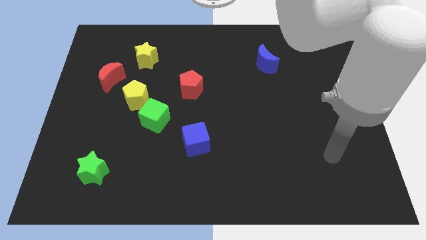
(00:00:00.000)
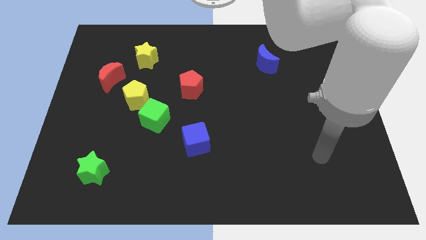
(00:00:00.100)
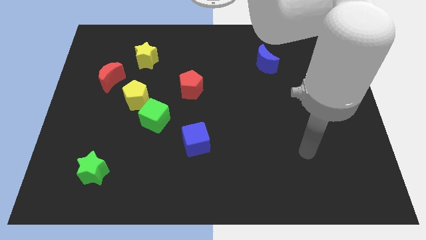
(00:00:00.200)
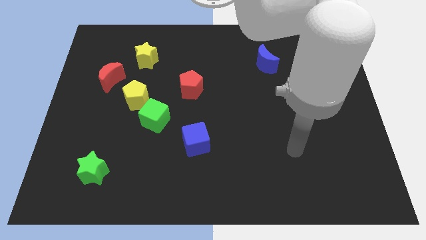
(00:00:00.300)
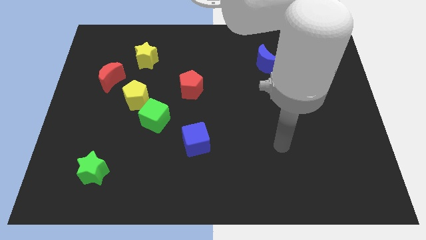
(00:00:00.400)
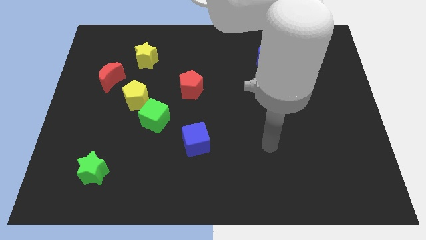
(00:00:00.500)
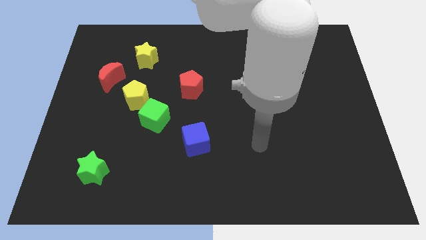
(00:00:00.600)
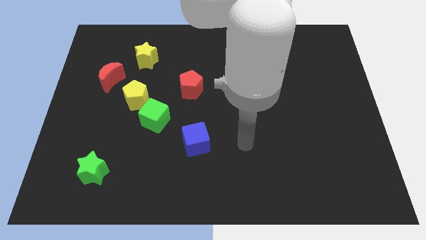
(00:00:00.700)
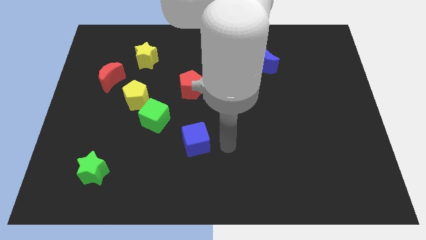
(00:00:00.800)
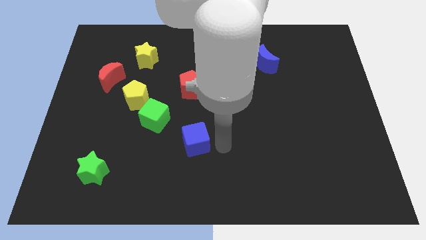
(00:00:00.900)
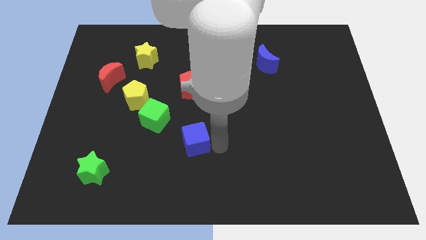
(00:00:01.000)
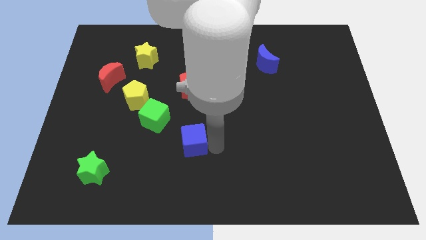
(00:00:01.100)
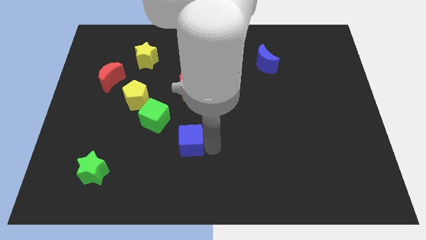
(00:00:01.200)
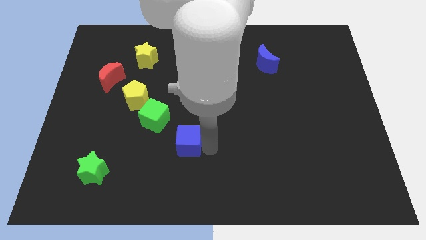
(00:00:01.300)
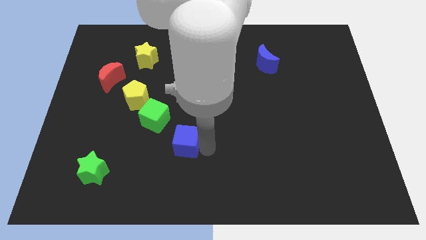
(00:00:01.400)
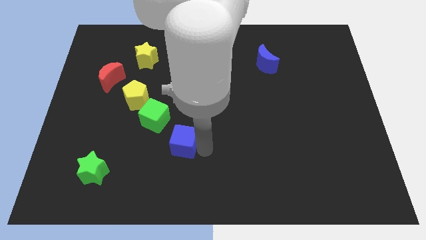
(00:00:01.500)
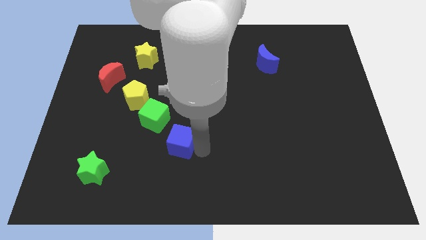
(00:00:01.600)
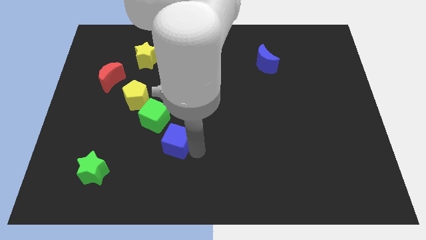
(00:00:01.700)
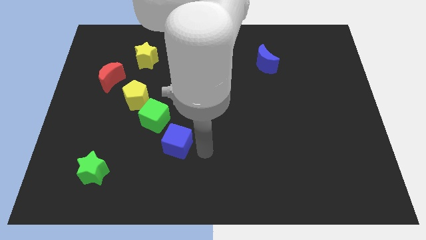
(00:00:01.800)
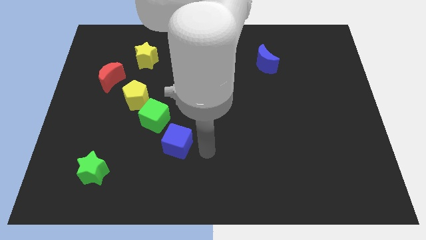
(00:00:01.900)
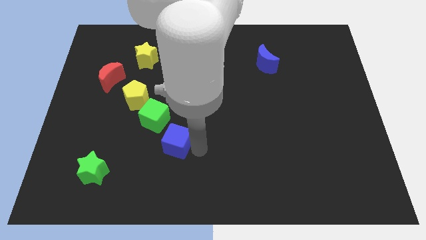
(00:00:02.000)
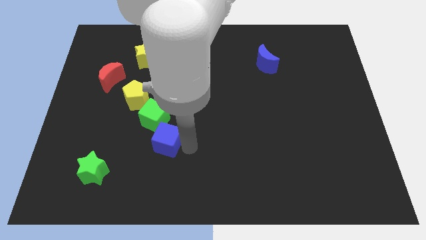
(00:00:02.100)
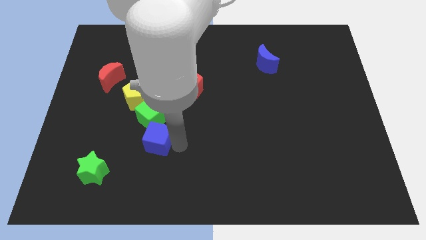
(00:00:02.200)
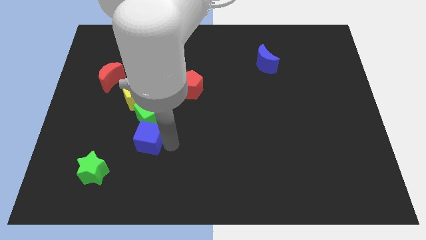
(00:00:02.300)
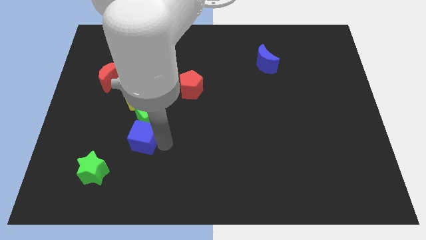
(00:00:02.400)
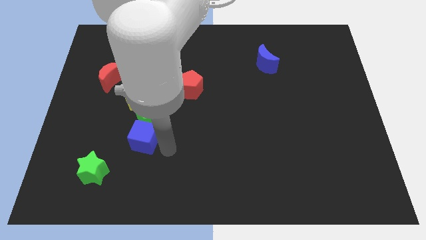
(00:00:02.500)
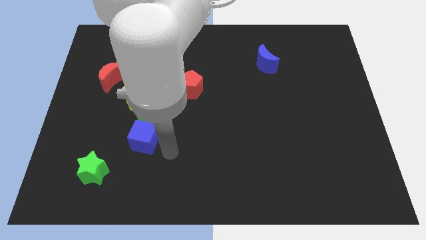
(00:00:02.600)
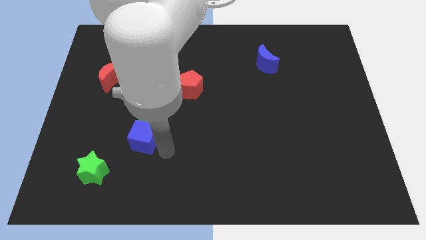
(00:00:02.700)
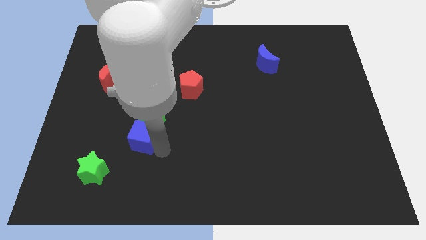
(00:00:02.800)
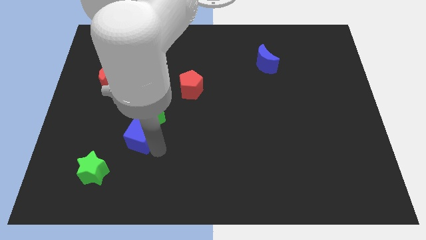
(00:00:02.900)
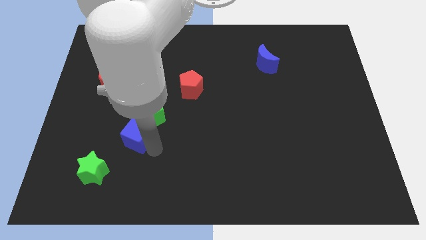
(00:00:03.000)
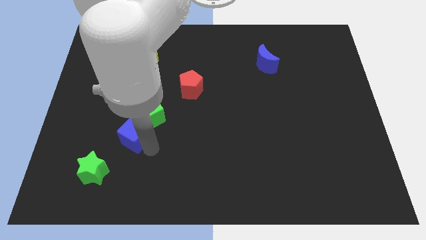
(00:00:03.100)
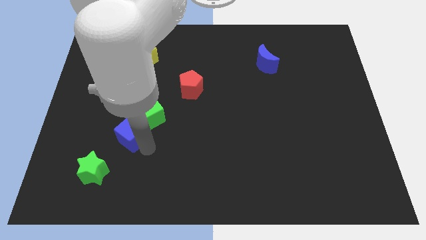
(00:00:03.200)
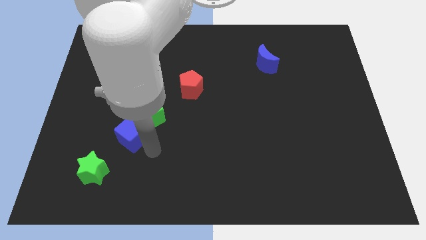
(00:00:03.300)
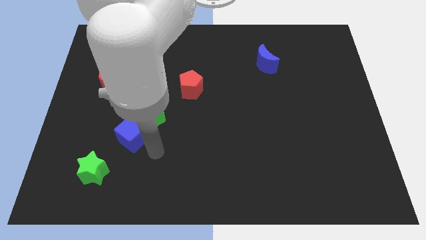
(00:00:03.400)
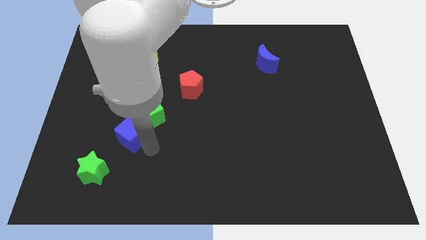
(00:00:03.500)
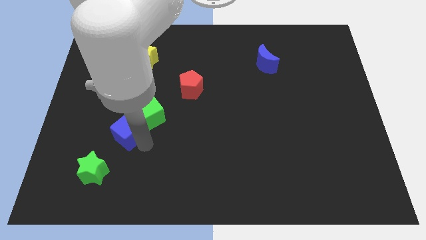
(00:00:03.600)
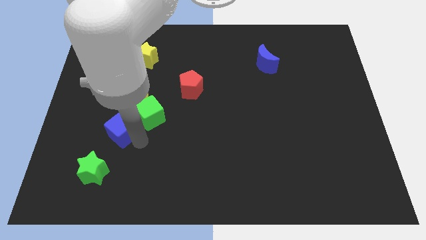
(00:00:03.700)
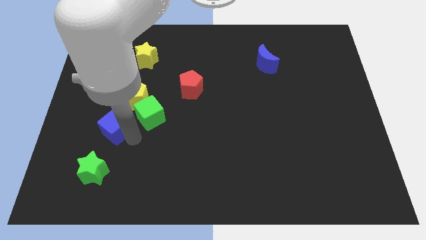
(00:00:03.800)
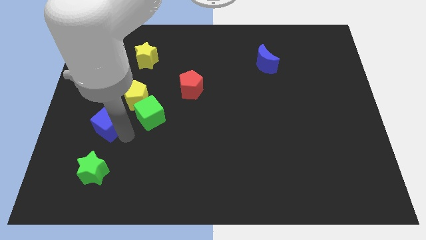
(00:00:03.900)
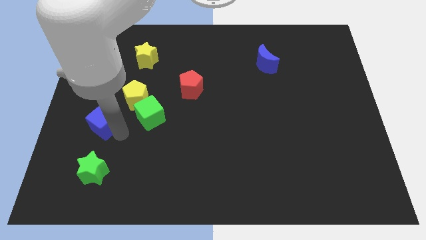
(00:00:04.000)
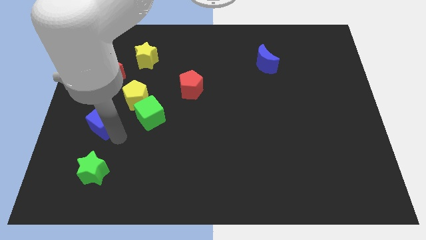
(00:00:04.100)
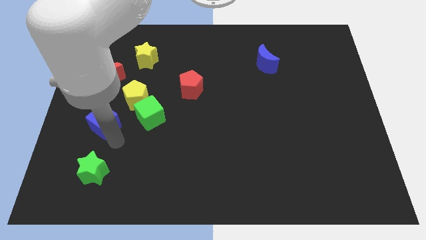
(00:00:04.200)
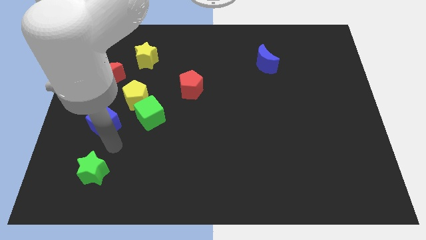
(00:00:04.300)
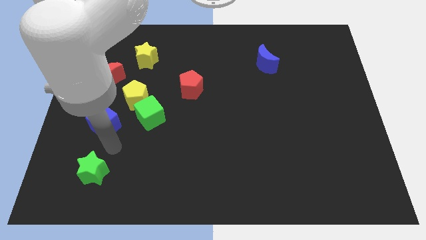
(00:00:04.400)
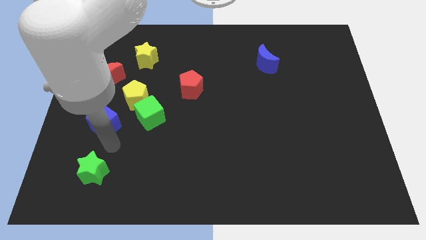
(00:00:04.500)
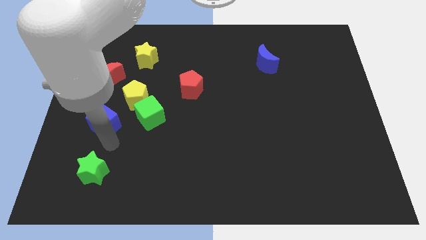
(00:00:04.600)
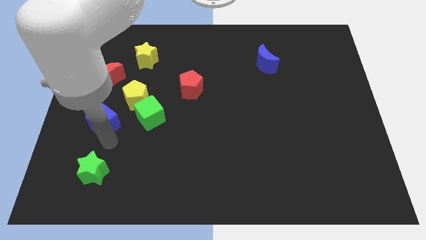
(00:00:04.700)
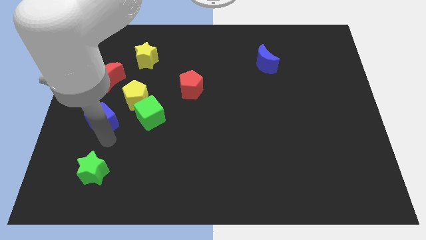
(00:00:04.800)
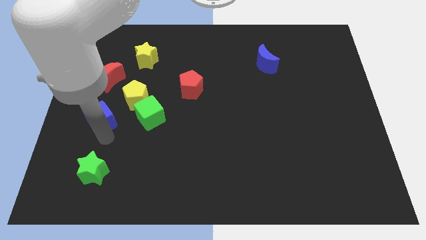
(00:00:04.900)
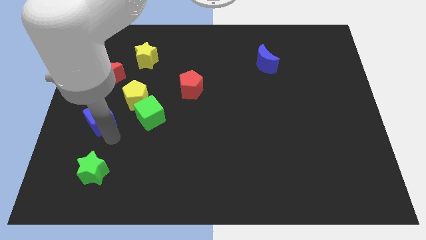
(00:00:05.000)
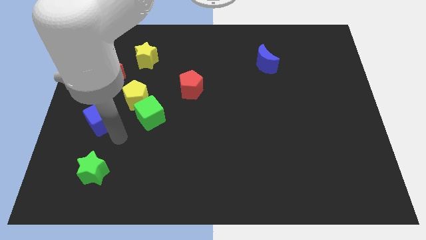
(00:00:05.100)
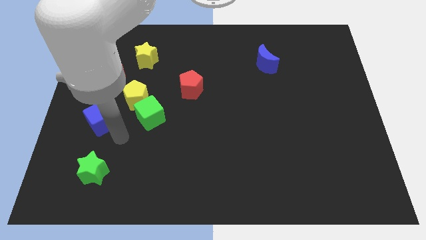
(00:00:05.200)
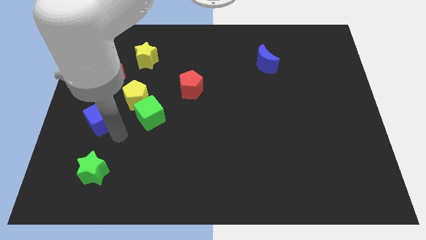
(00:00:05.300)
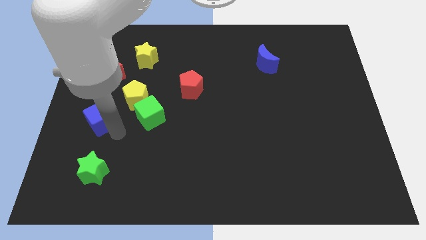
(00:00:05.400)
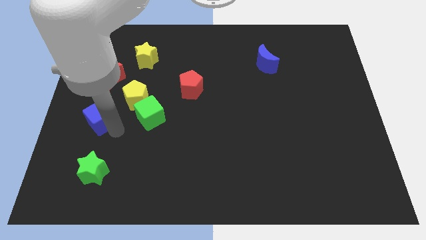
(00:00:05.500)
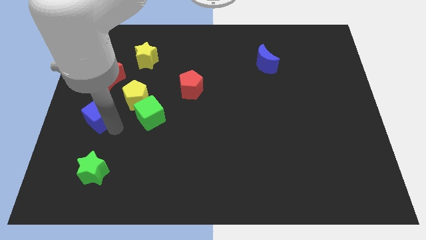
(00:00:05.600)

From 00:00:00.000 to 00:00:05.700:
push the blue cube to the center left
